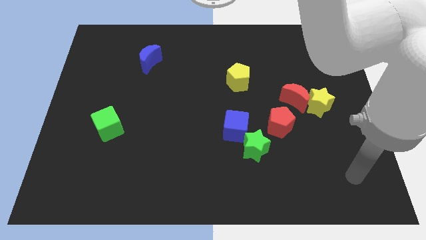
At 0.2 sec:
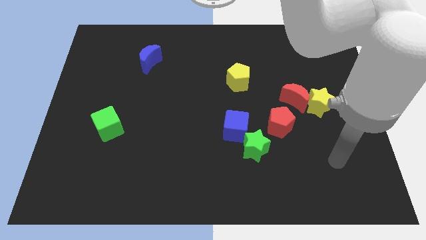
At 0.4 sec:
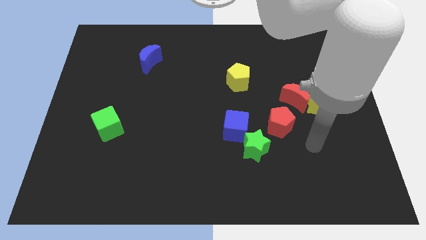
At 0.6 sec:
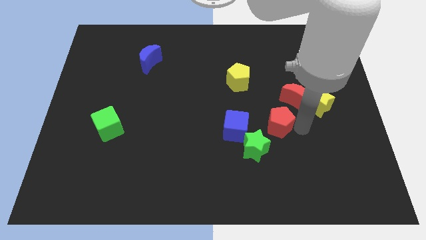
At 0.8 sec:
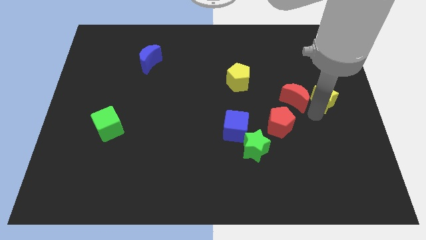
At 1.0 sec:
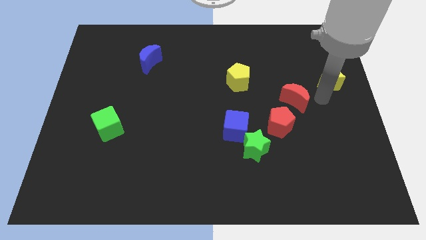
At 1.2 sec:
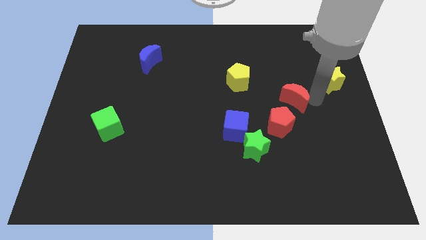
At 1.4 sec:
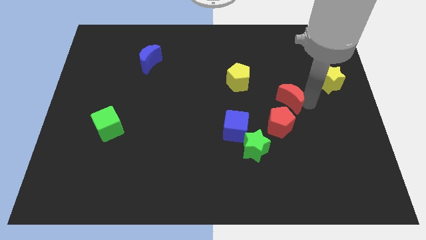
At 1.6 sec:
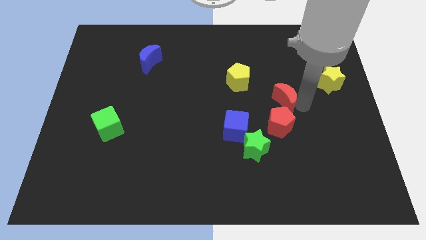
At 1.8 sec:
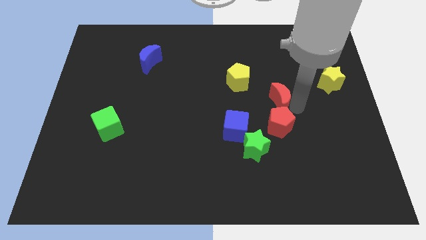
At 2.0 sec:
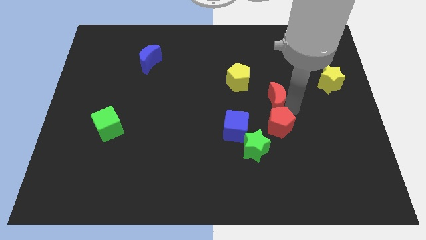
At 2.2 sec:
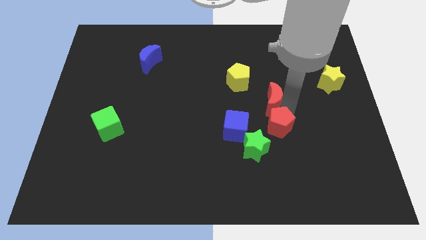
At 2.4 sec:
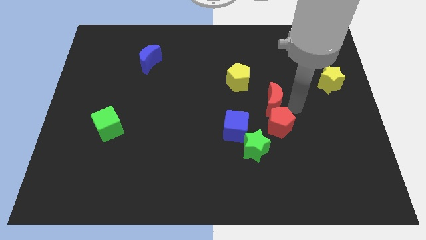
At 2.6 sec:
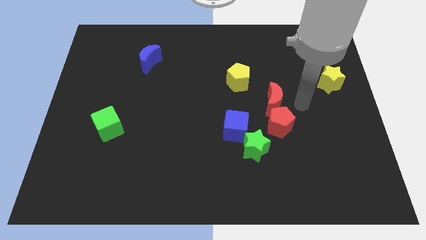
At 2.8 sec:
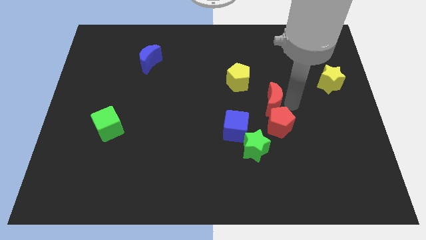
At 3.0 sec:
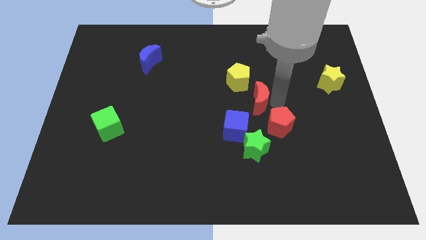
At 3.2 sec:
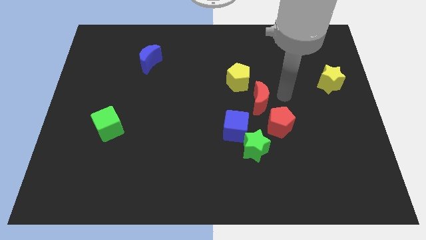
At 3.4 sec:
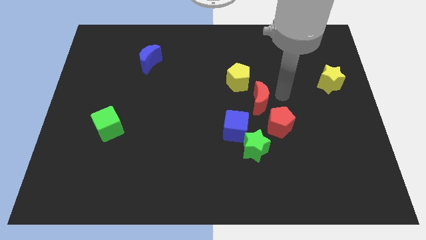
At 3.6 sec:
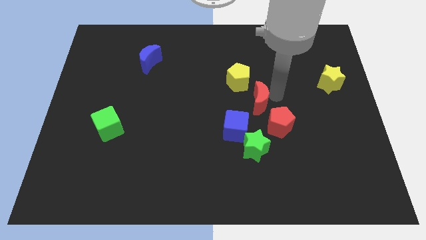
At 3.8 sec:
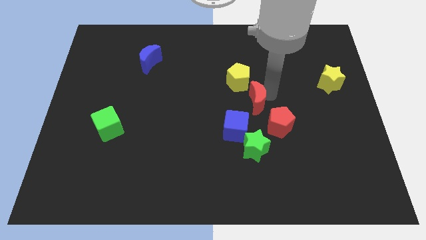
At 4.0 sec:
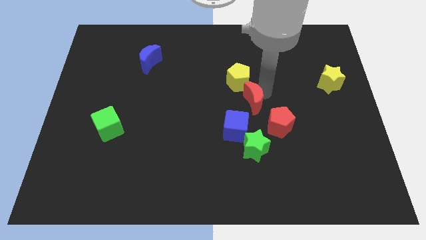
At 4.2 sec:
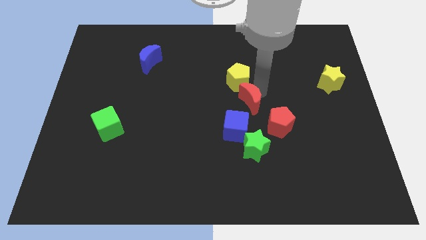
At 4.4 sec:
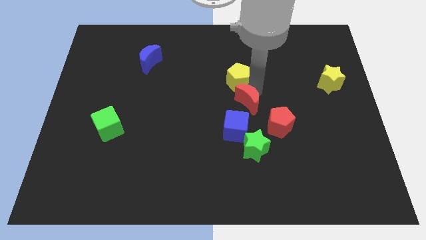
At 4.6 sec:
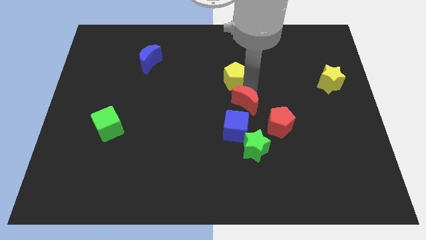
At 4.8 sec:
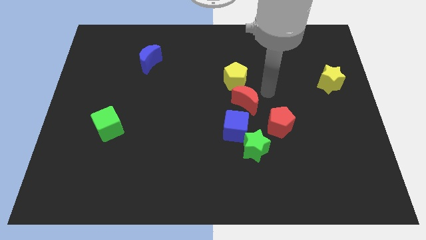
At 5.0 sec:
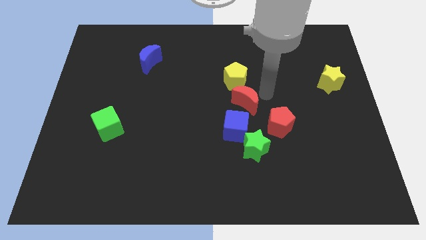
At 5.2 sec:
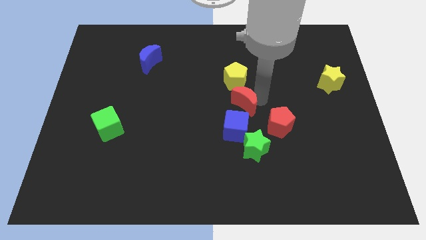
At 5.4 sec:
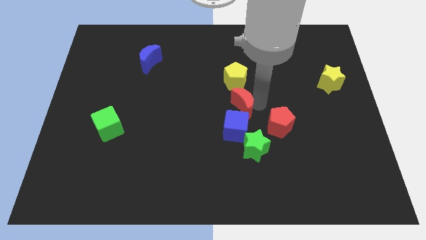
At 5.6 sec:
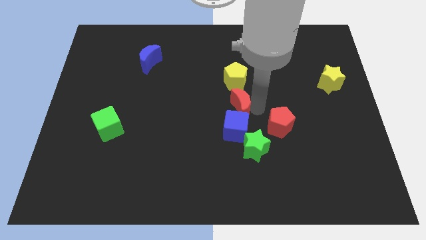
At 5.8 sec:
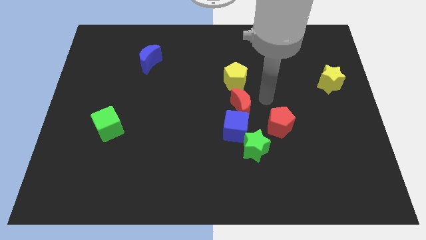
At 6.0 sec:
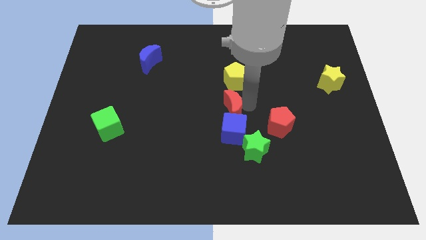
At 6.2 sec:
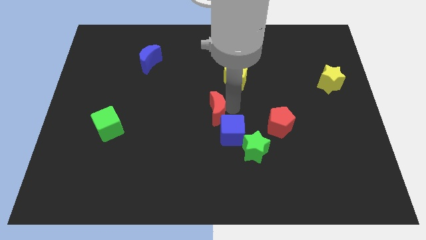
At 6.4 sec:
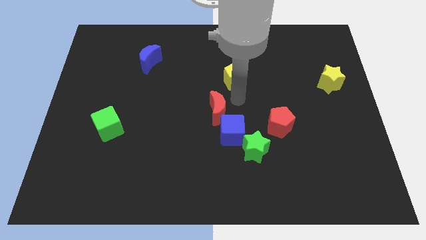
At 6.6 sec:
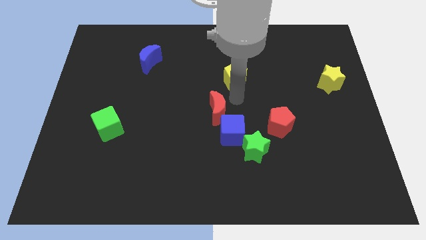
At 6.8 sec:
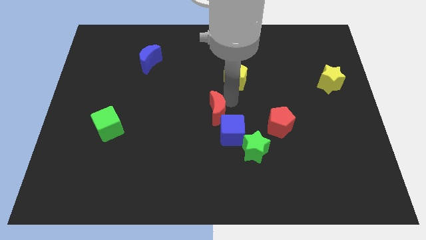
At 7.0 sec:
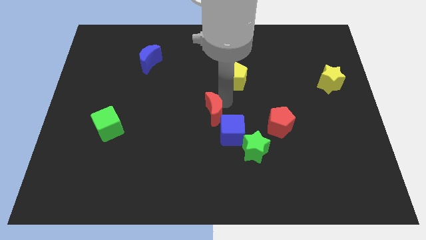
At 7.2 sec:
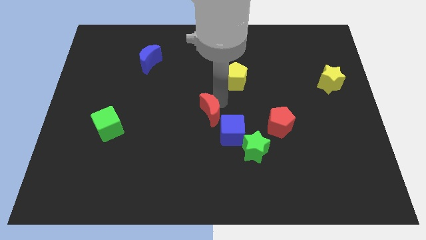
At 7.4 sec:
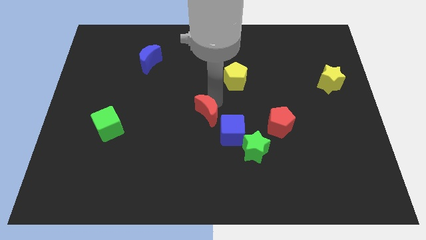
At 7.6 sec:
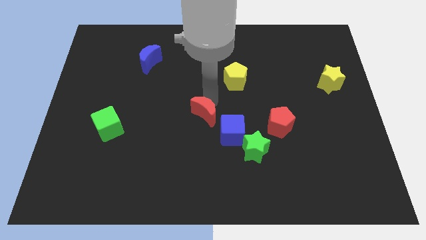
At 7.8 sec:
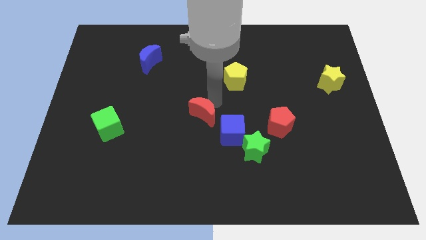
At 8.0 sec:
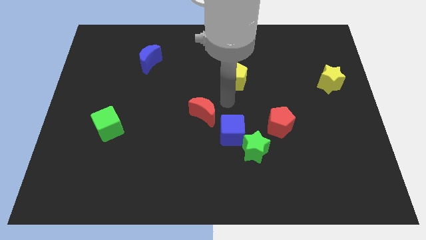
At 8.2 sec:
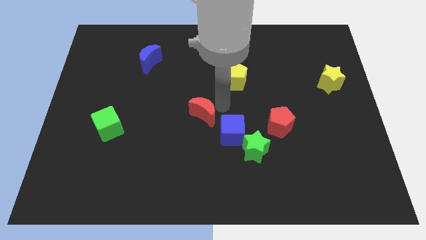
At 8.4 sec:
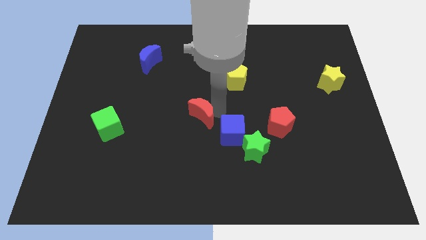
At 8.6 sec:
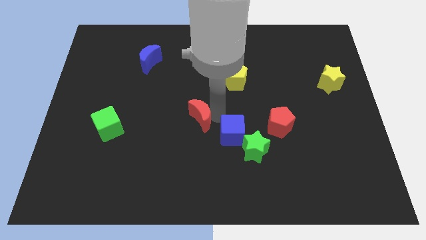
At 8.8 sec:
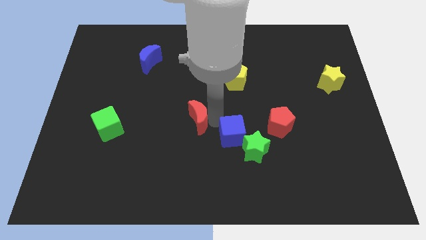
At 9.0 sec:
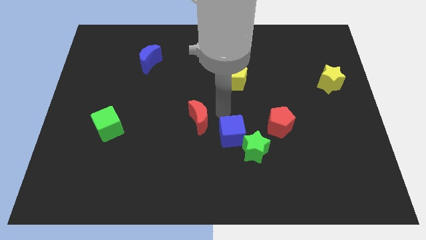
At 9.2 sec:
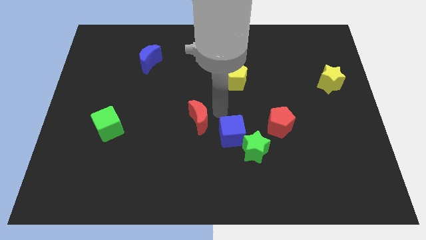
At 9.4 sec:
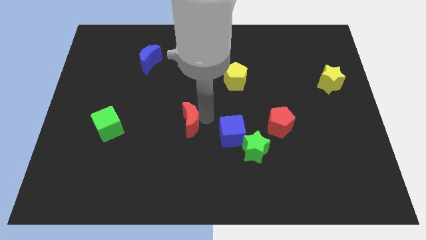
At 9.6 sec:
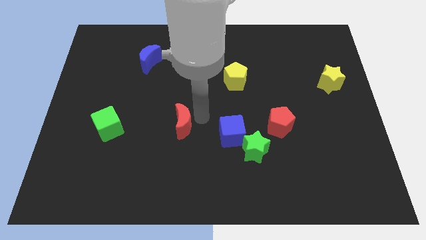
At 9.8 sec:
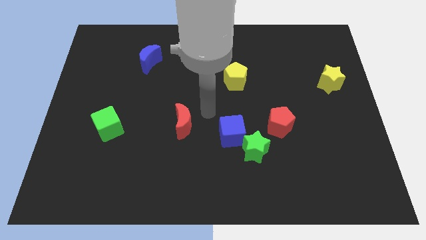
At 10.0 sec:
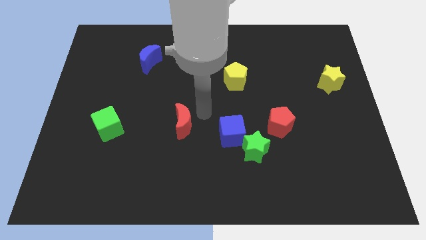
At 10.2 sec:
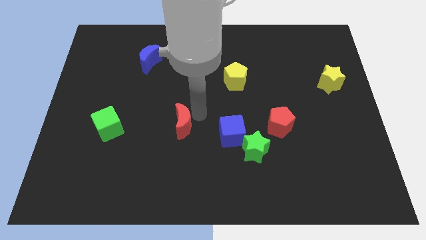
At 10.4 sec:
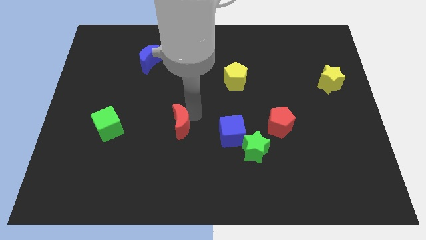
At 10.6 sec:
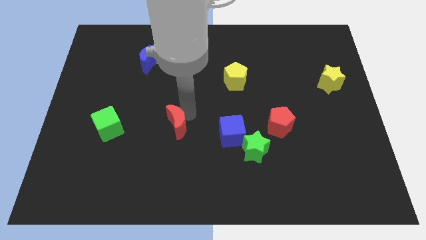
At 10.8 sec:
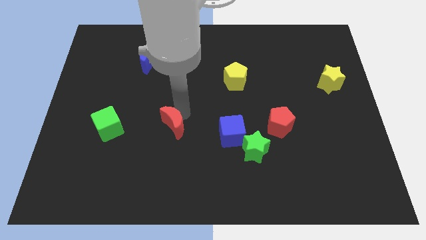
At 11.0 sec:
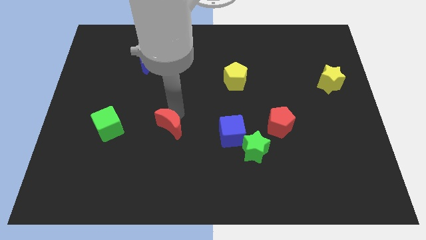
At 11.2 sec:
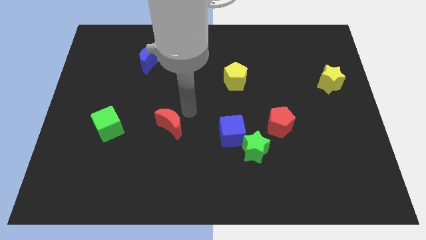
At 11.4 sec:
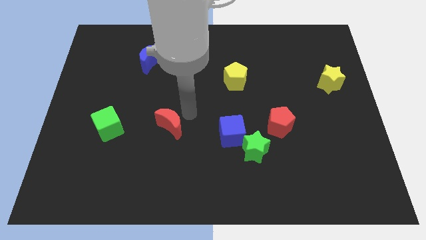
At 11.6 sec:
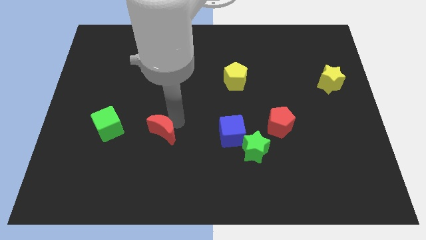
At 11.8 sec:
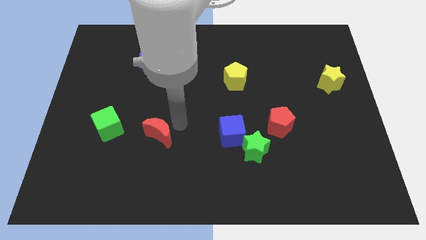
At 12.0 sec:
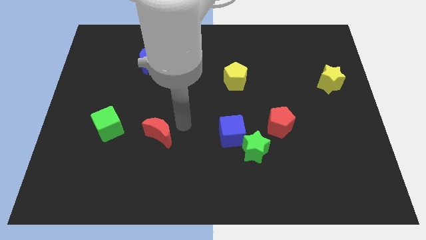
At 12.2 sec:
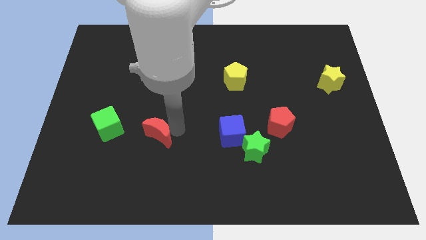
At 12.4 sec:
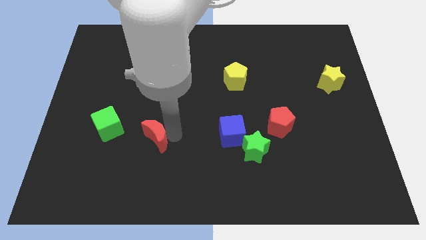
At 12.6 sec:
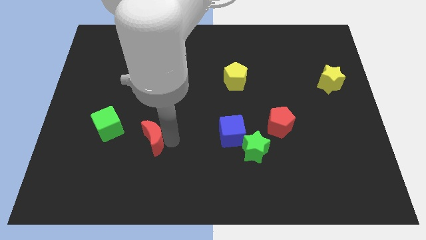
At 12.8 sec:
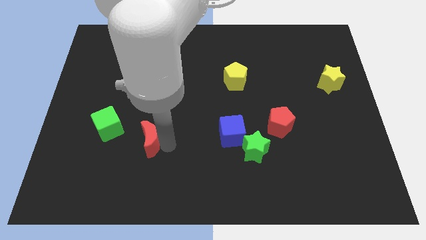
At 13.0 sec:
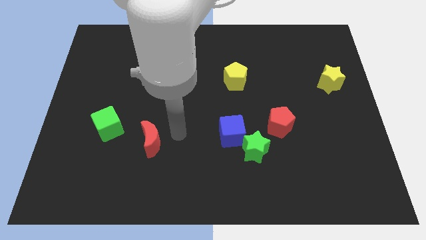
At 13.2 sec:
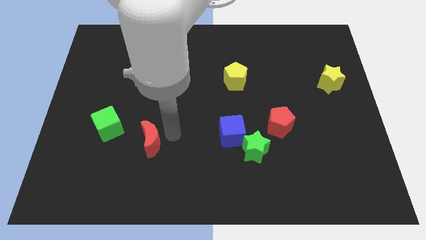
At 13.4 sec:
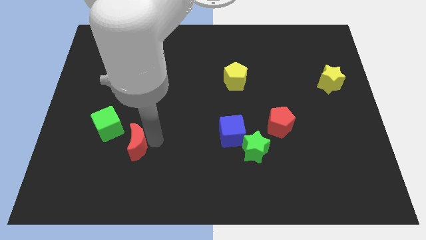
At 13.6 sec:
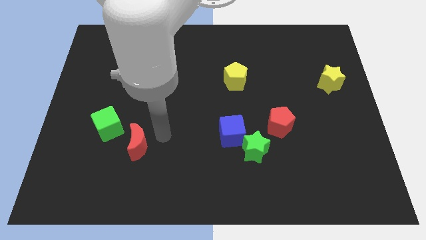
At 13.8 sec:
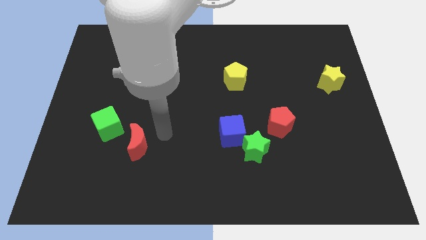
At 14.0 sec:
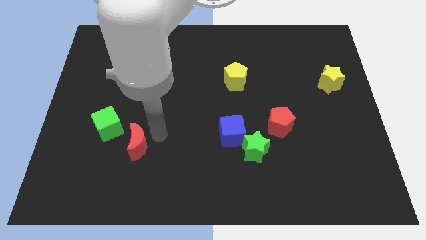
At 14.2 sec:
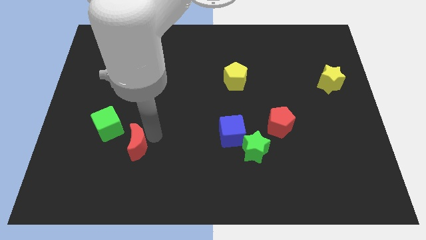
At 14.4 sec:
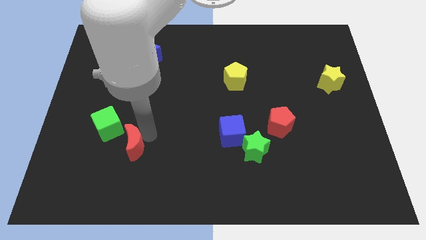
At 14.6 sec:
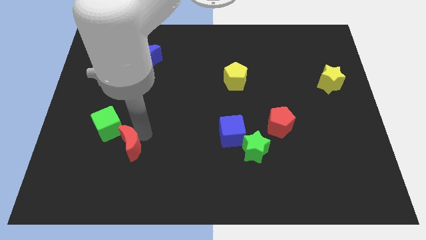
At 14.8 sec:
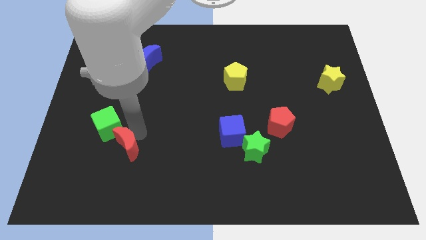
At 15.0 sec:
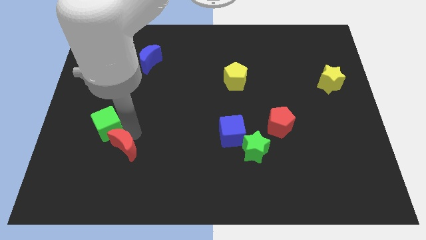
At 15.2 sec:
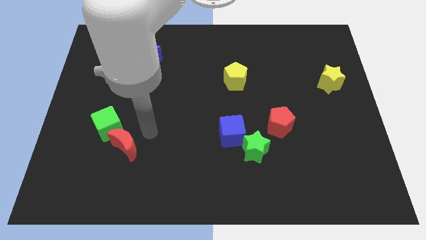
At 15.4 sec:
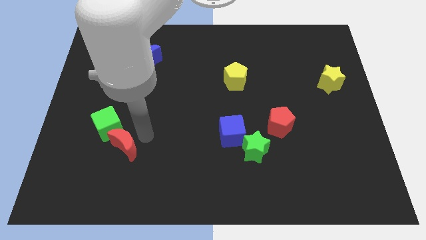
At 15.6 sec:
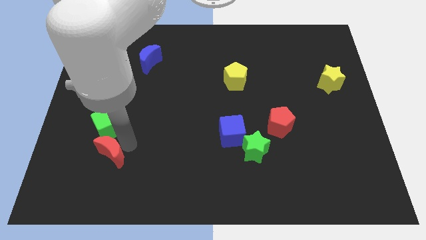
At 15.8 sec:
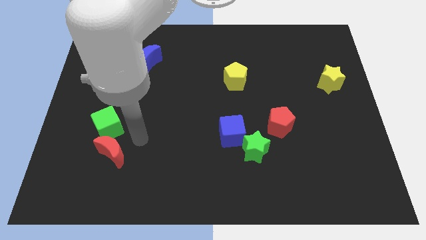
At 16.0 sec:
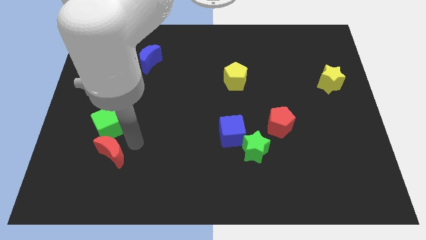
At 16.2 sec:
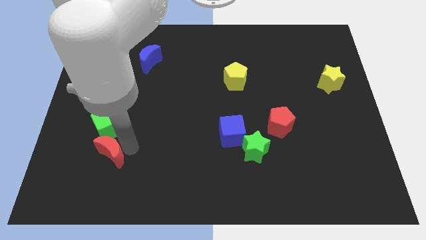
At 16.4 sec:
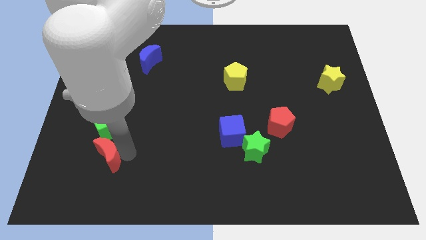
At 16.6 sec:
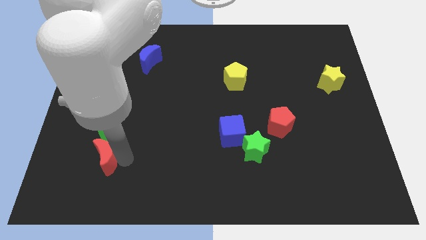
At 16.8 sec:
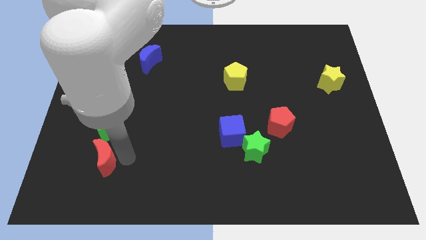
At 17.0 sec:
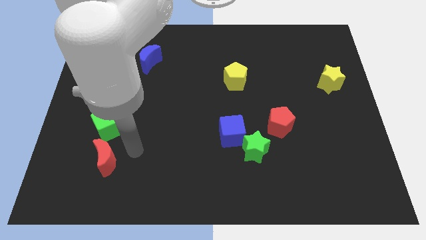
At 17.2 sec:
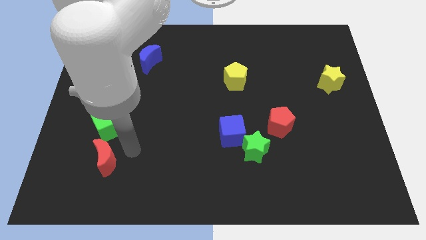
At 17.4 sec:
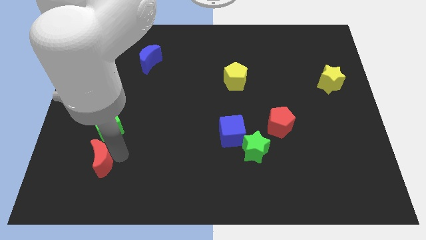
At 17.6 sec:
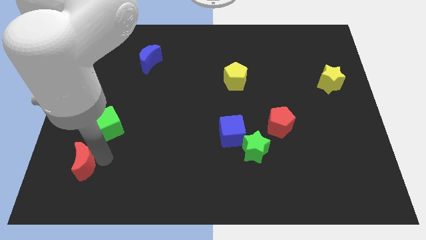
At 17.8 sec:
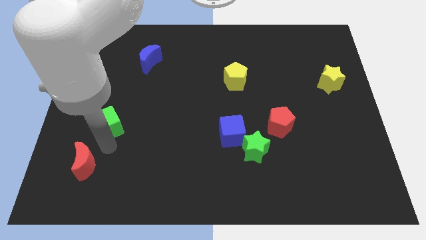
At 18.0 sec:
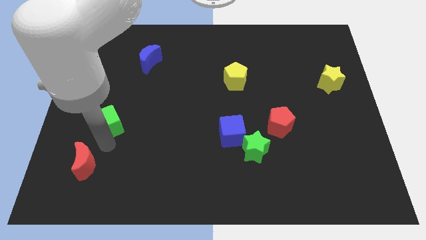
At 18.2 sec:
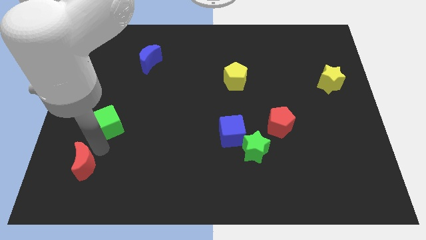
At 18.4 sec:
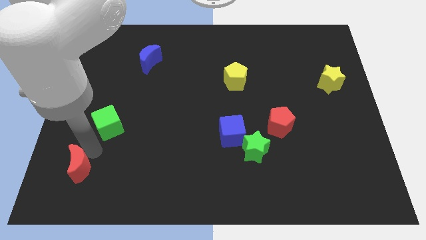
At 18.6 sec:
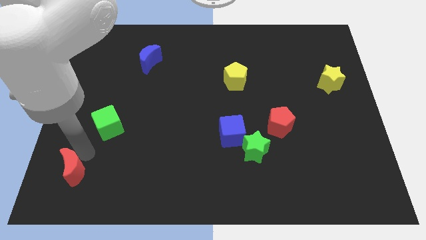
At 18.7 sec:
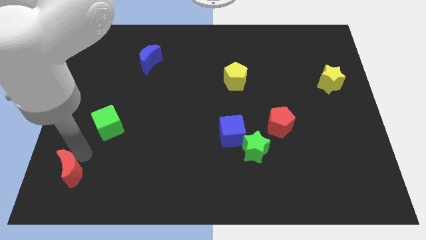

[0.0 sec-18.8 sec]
move the red moon to the lower left corner
